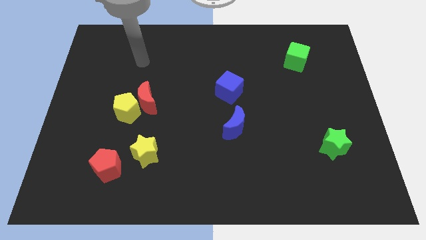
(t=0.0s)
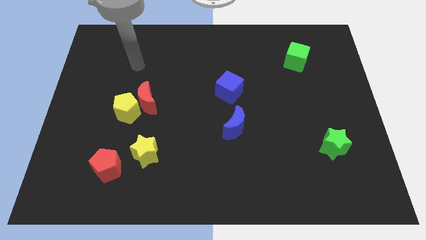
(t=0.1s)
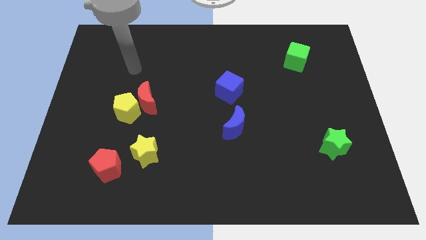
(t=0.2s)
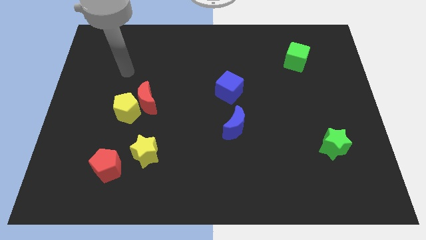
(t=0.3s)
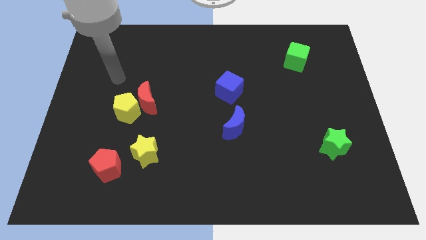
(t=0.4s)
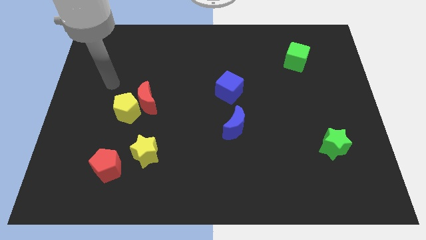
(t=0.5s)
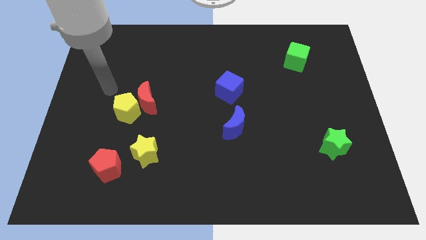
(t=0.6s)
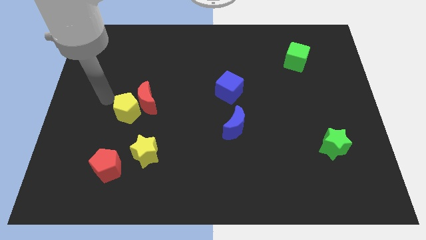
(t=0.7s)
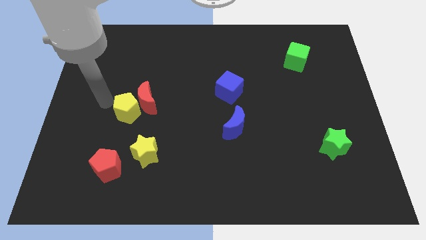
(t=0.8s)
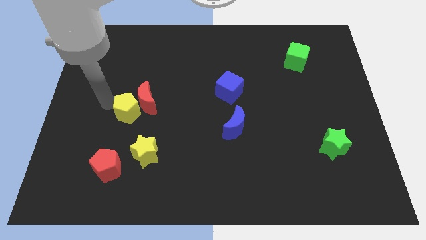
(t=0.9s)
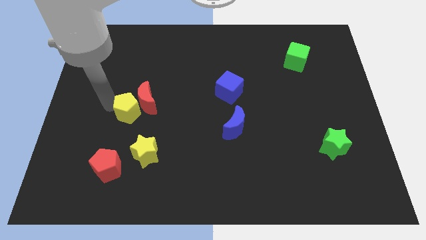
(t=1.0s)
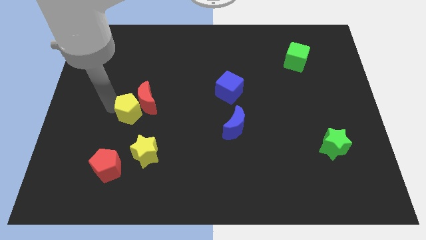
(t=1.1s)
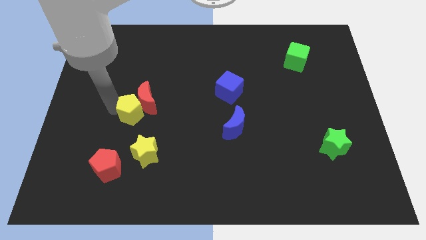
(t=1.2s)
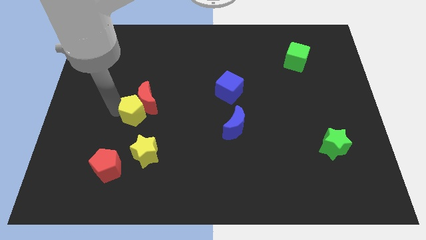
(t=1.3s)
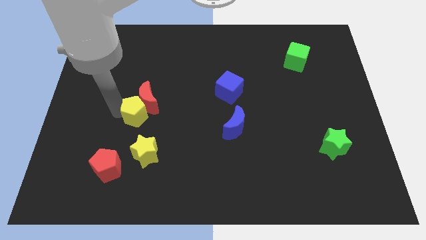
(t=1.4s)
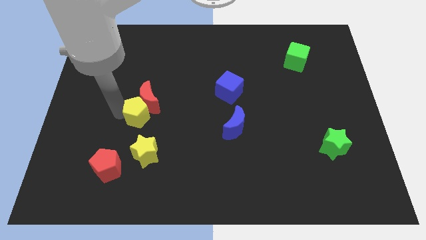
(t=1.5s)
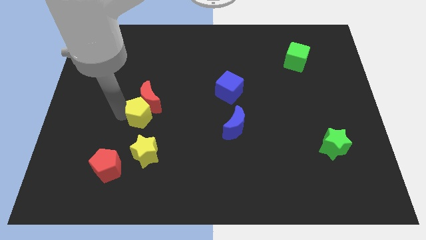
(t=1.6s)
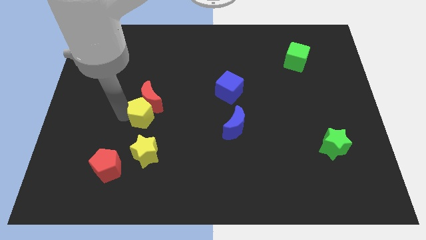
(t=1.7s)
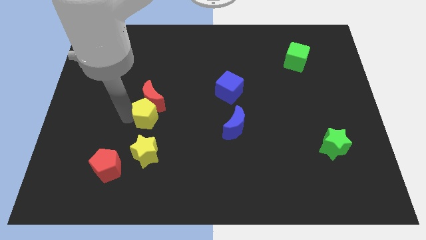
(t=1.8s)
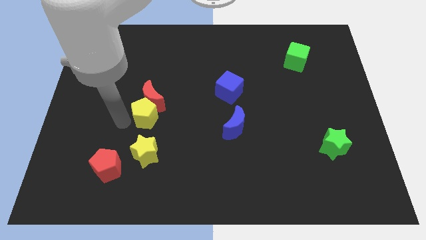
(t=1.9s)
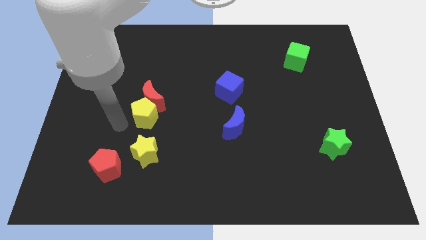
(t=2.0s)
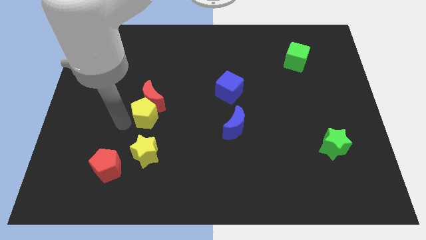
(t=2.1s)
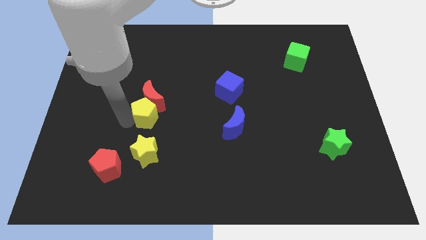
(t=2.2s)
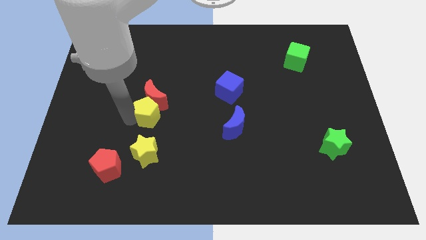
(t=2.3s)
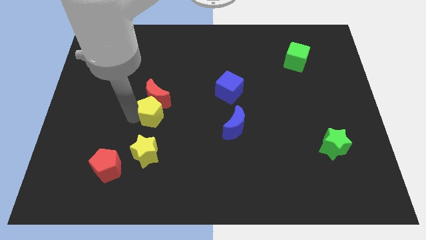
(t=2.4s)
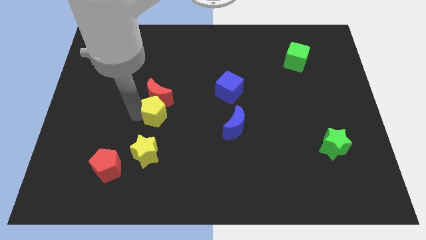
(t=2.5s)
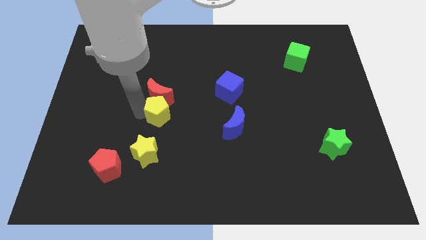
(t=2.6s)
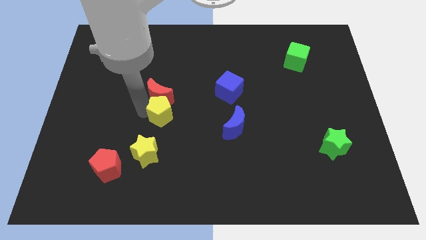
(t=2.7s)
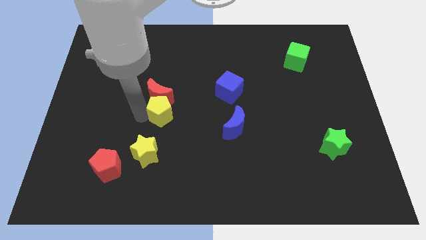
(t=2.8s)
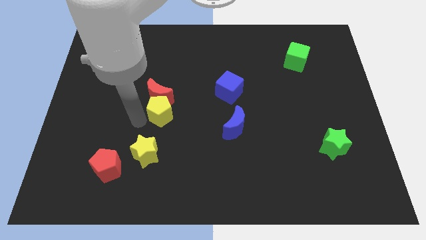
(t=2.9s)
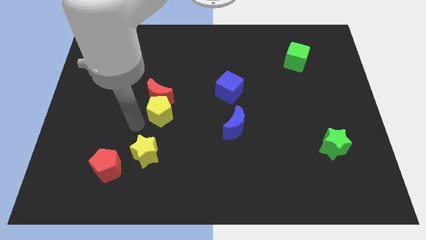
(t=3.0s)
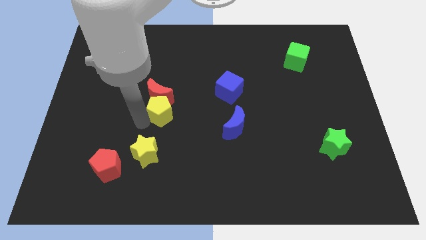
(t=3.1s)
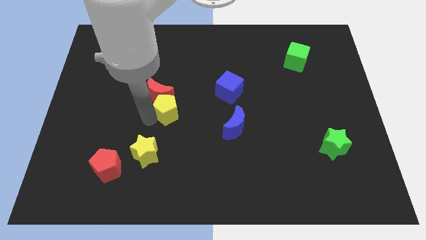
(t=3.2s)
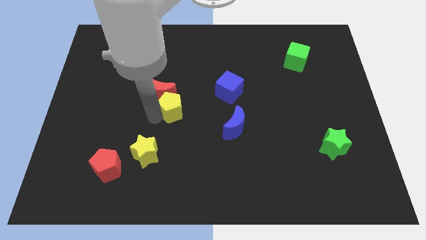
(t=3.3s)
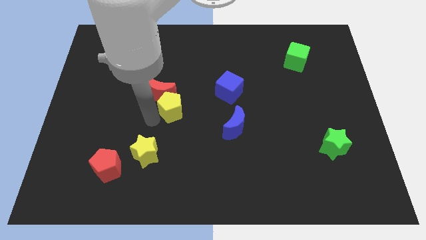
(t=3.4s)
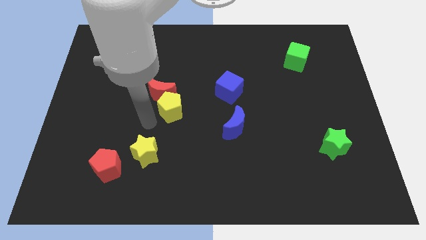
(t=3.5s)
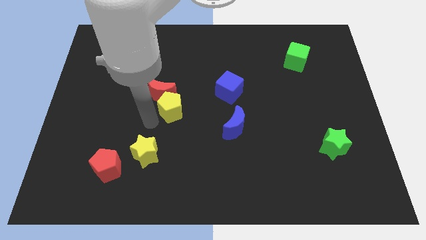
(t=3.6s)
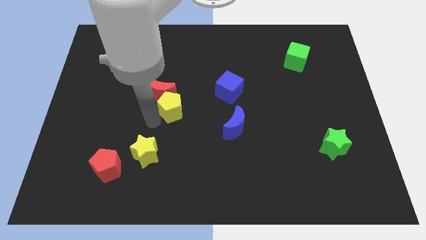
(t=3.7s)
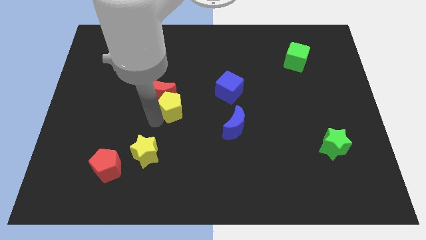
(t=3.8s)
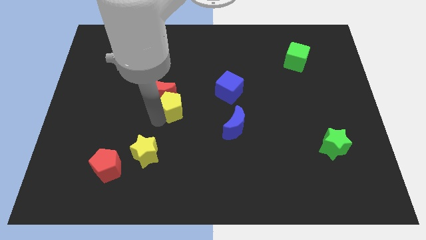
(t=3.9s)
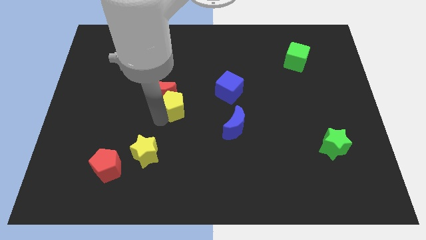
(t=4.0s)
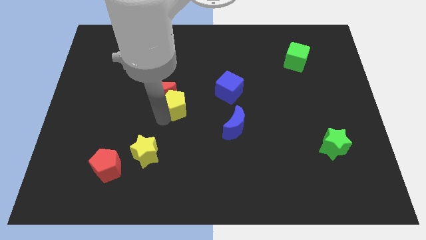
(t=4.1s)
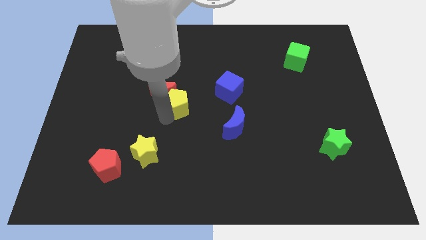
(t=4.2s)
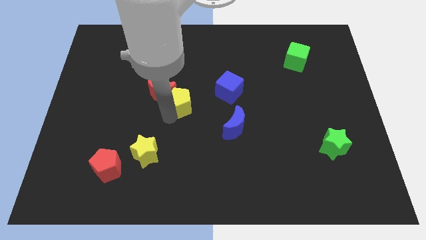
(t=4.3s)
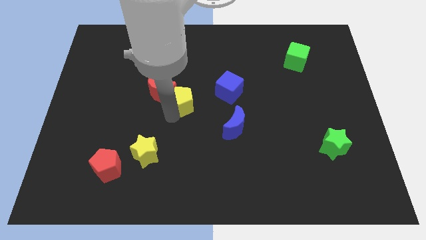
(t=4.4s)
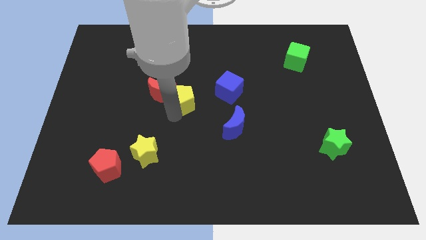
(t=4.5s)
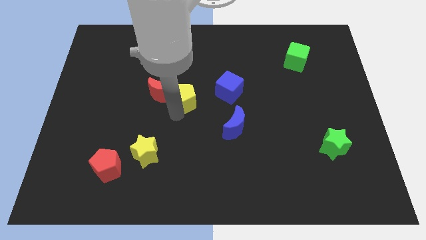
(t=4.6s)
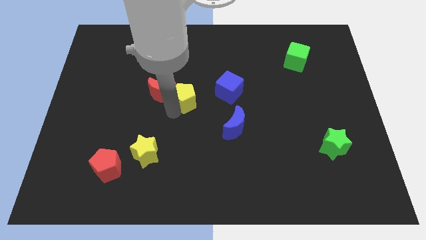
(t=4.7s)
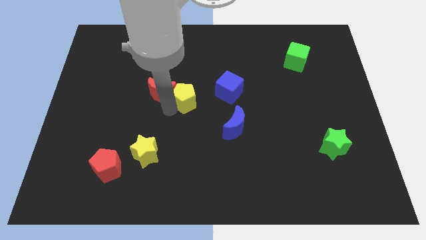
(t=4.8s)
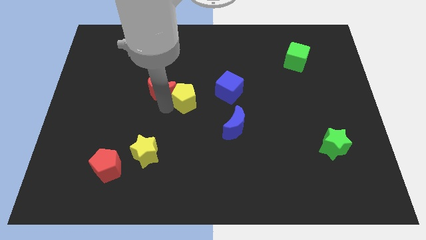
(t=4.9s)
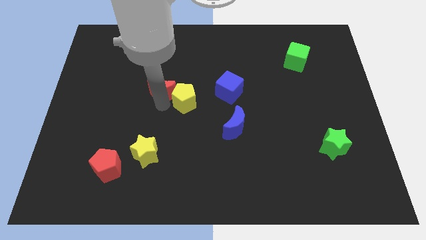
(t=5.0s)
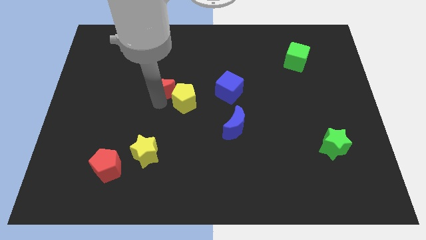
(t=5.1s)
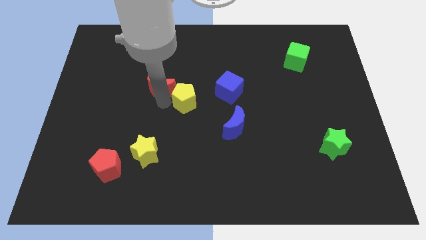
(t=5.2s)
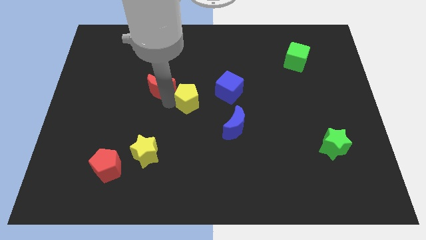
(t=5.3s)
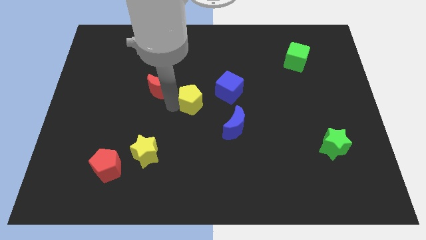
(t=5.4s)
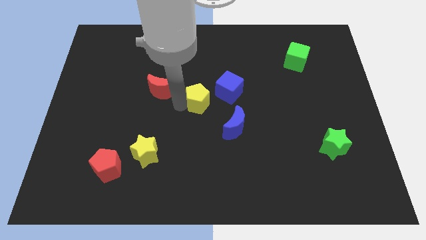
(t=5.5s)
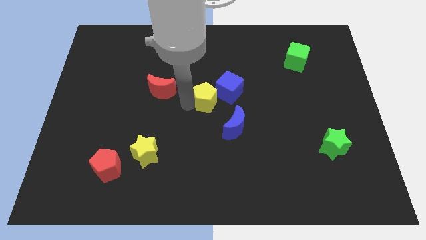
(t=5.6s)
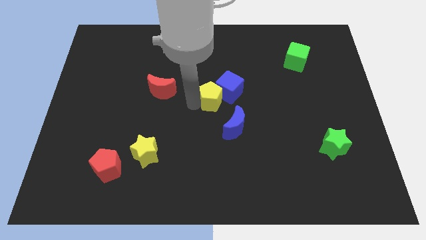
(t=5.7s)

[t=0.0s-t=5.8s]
push the yellow pentagon close to the blue cube

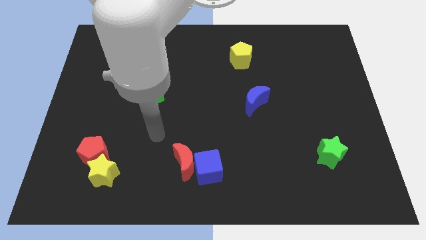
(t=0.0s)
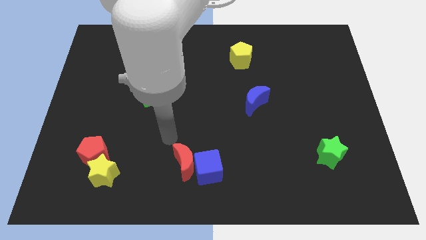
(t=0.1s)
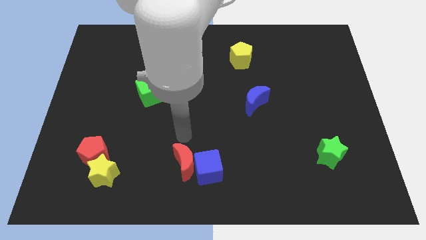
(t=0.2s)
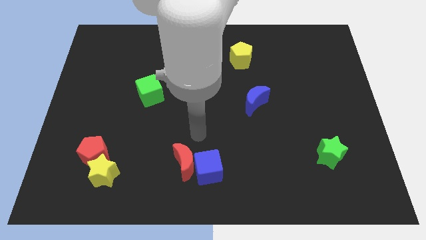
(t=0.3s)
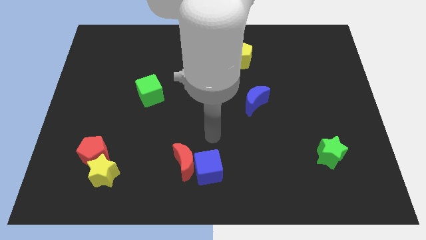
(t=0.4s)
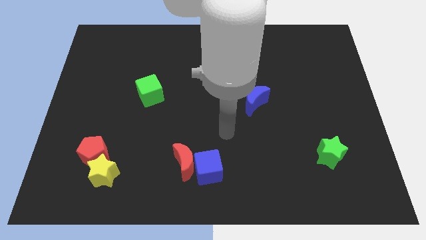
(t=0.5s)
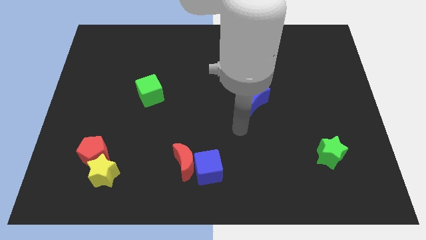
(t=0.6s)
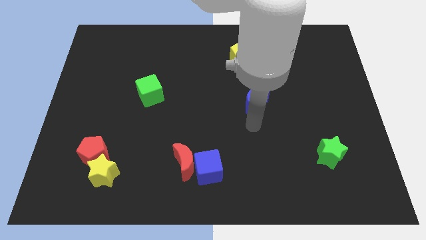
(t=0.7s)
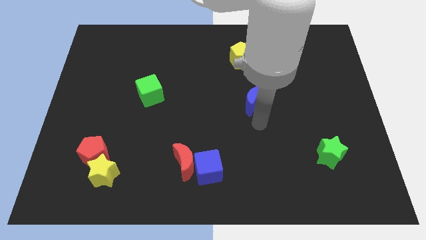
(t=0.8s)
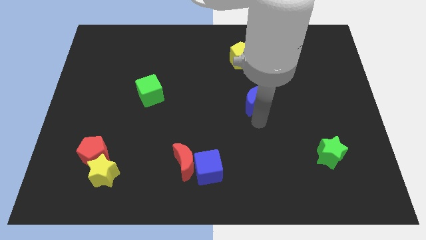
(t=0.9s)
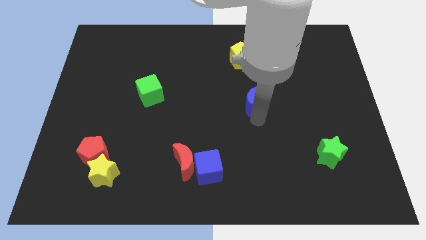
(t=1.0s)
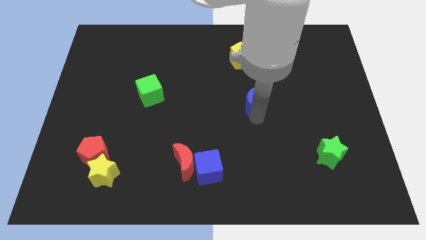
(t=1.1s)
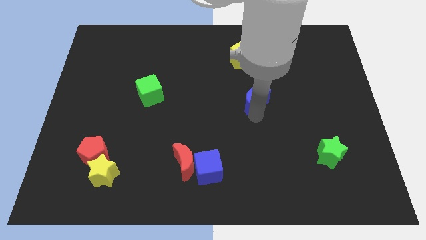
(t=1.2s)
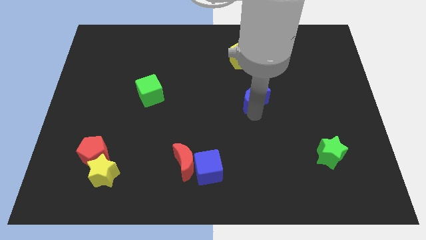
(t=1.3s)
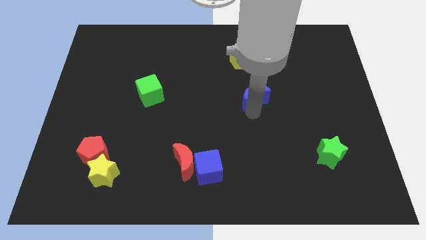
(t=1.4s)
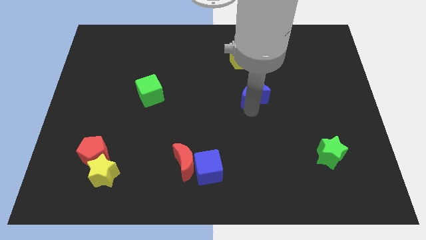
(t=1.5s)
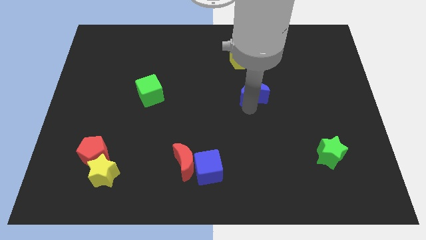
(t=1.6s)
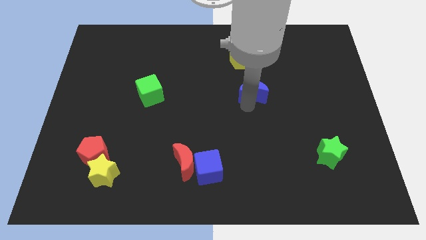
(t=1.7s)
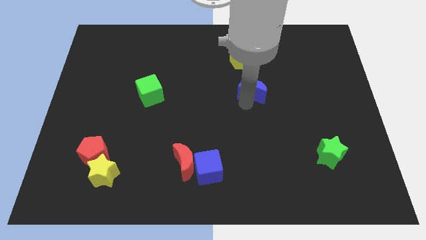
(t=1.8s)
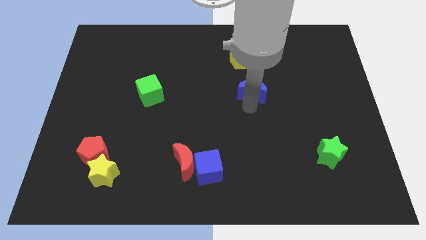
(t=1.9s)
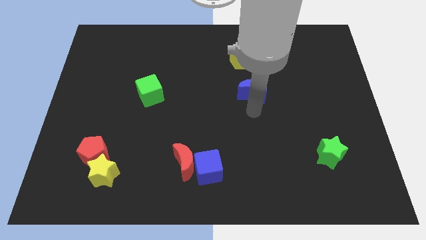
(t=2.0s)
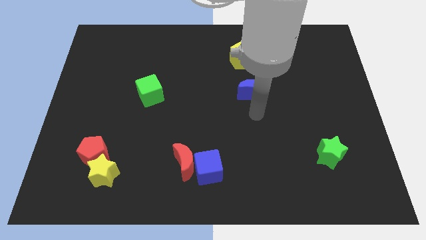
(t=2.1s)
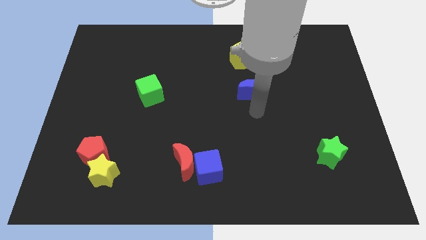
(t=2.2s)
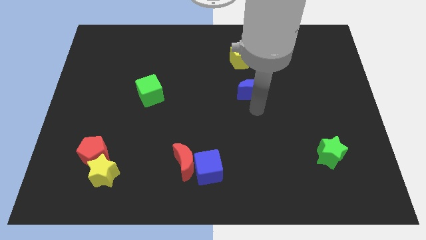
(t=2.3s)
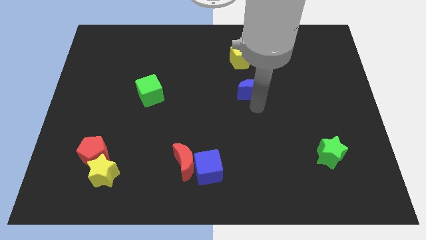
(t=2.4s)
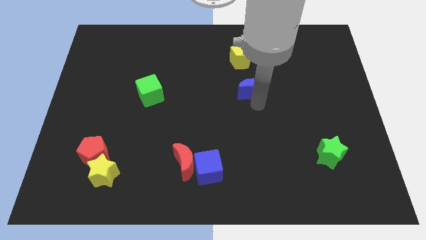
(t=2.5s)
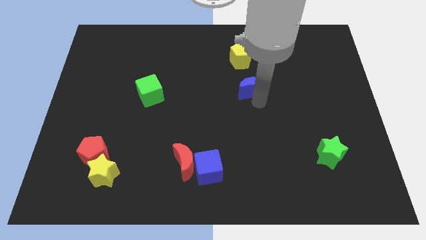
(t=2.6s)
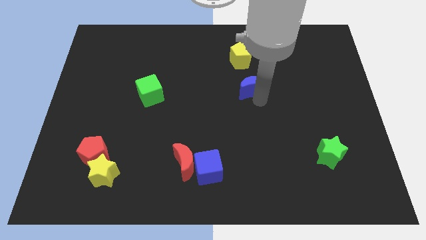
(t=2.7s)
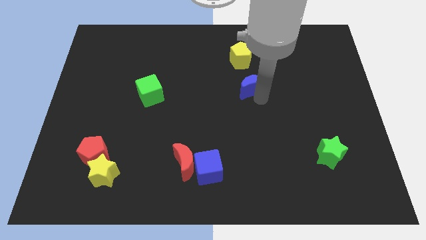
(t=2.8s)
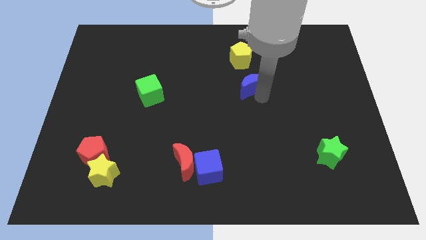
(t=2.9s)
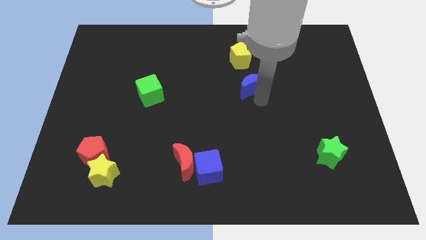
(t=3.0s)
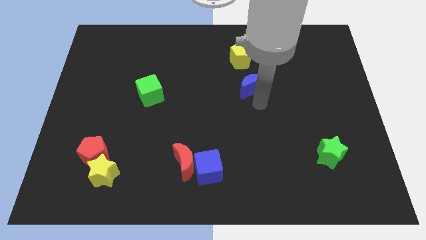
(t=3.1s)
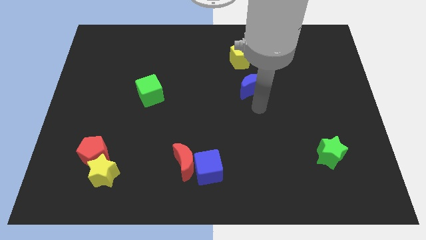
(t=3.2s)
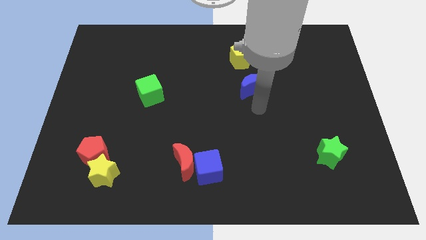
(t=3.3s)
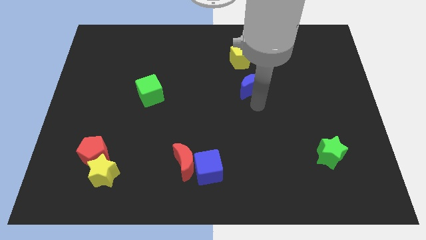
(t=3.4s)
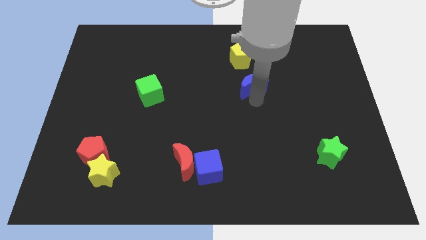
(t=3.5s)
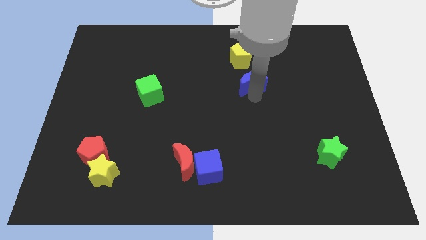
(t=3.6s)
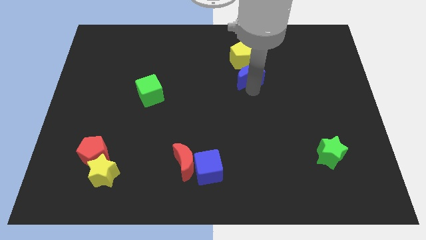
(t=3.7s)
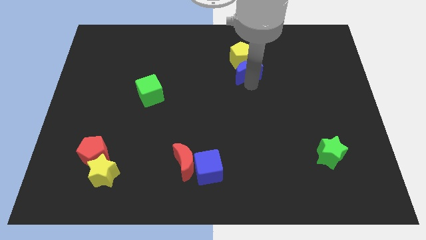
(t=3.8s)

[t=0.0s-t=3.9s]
push the blue moon to the yellow pentagon
